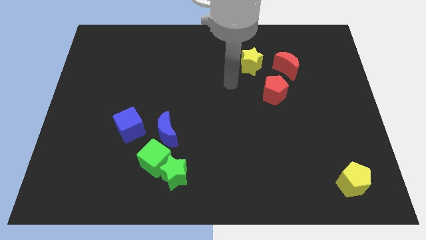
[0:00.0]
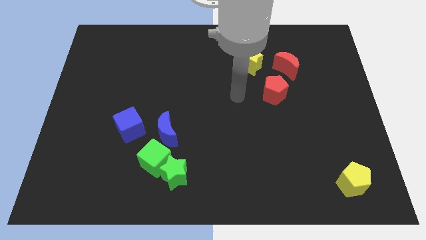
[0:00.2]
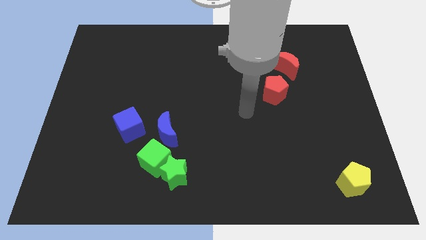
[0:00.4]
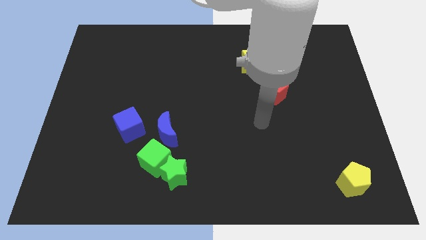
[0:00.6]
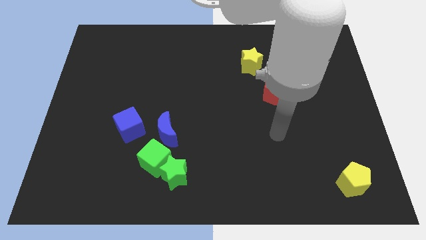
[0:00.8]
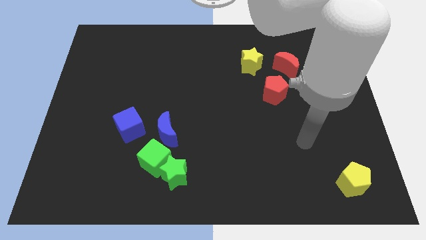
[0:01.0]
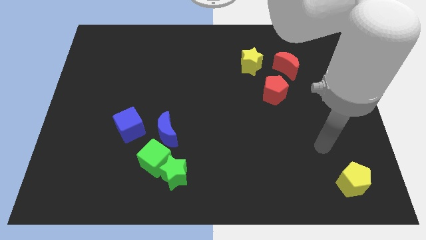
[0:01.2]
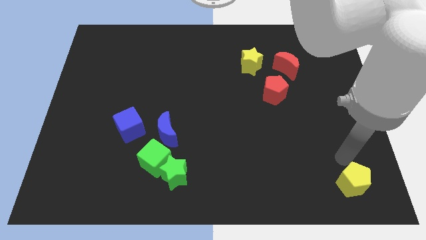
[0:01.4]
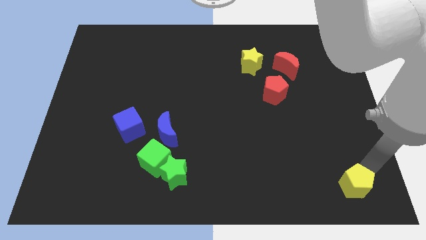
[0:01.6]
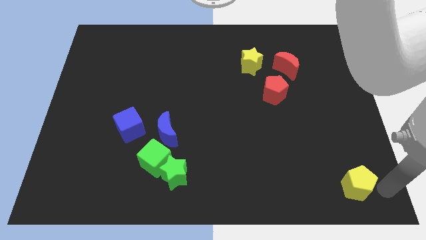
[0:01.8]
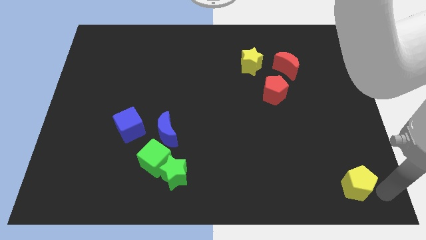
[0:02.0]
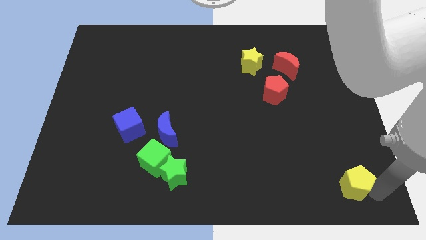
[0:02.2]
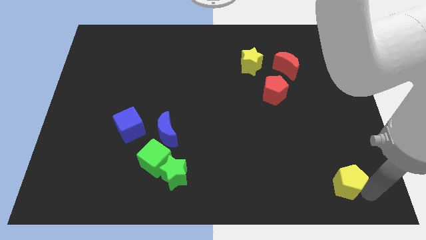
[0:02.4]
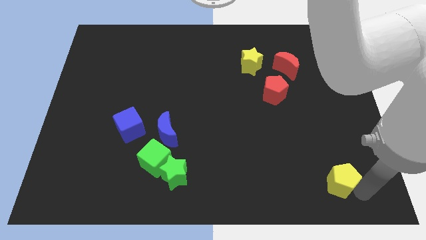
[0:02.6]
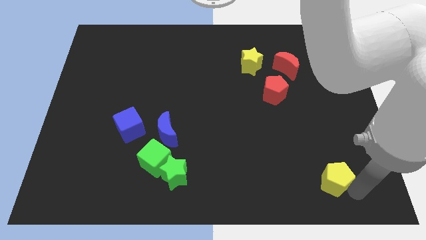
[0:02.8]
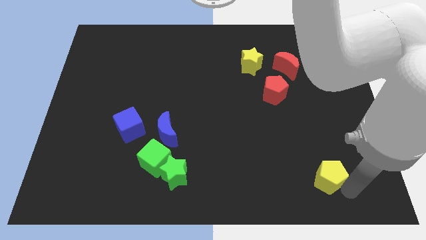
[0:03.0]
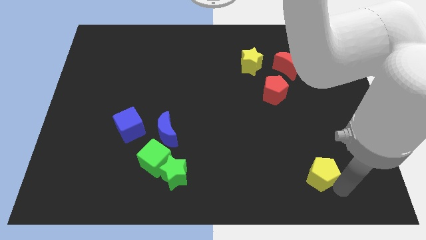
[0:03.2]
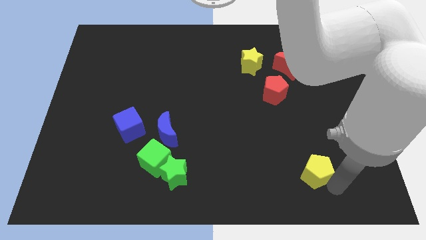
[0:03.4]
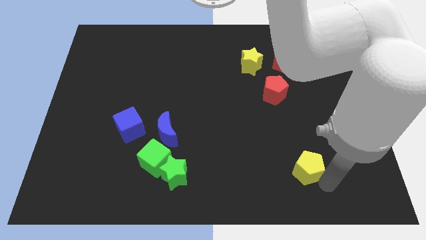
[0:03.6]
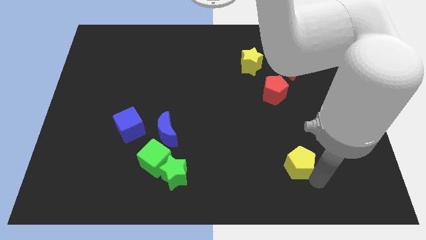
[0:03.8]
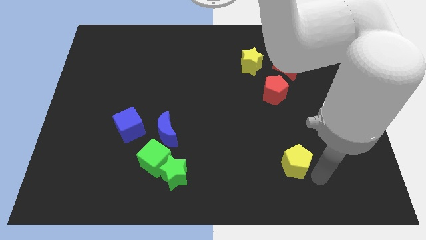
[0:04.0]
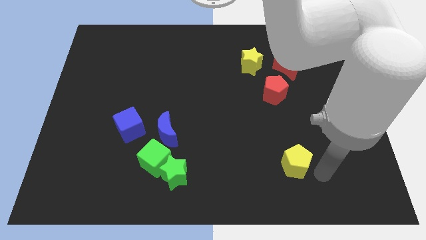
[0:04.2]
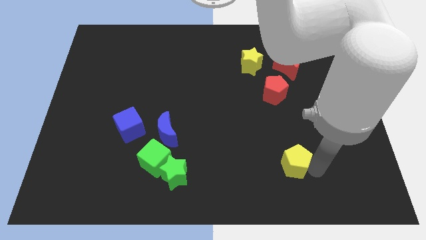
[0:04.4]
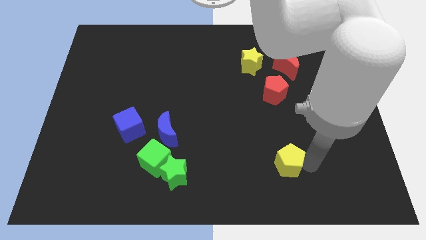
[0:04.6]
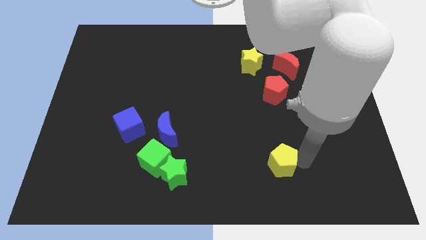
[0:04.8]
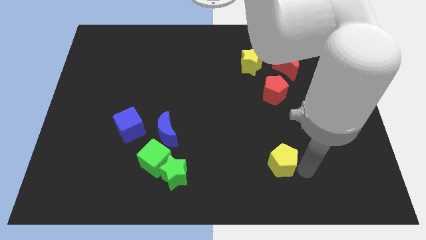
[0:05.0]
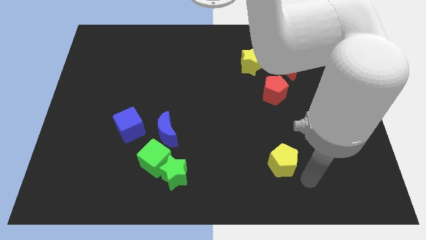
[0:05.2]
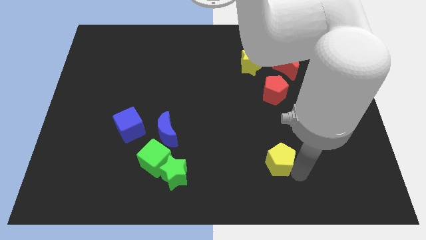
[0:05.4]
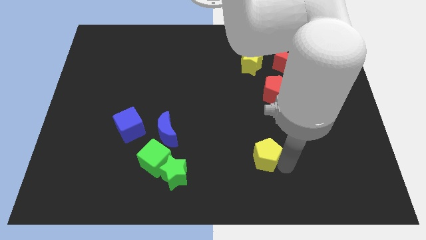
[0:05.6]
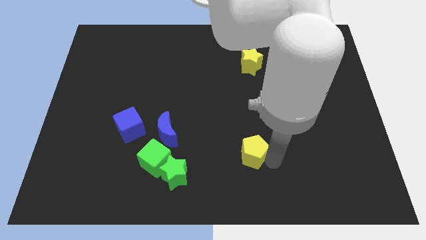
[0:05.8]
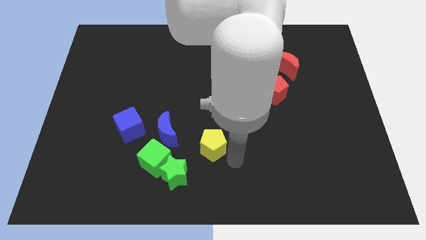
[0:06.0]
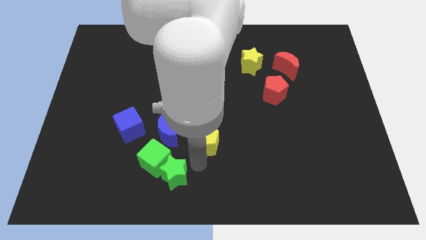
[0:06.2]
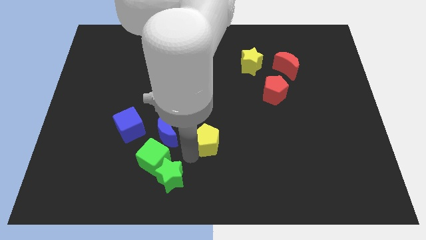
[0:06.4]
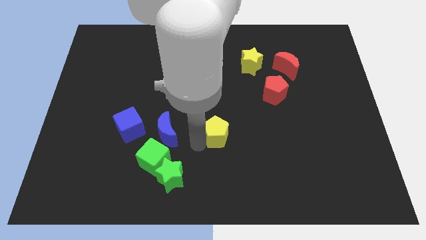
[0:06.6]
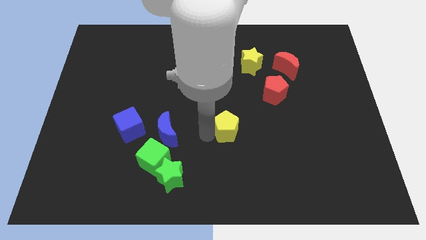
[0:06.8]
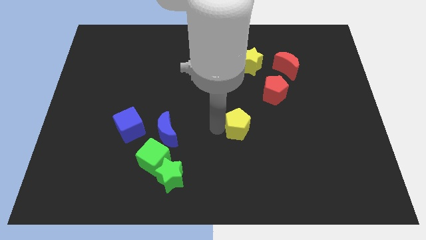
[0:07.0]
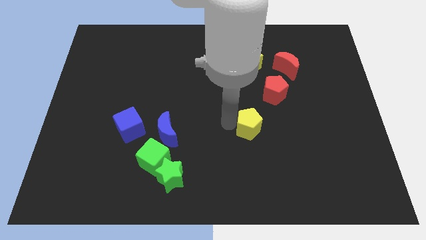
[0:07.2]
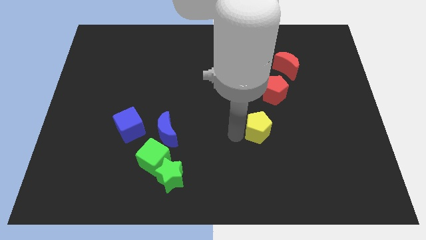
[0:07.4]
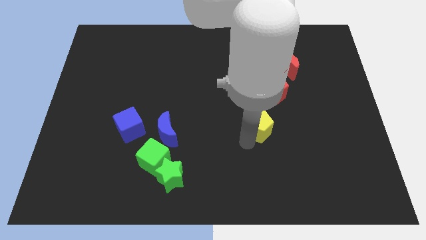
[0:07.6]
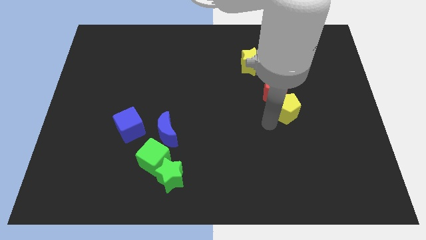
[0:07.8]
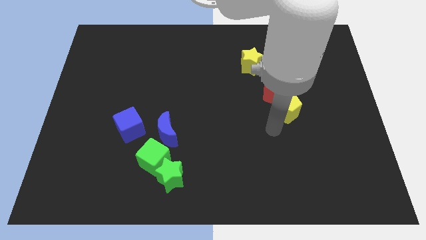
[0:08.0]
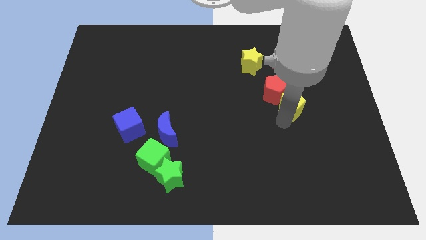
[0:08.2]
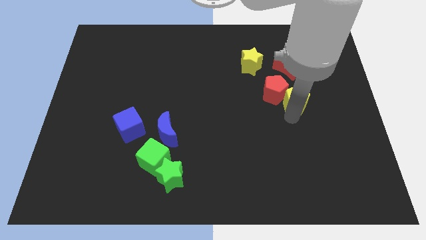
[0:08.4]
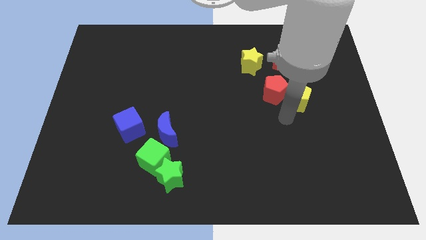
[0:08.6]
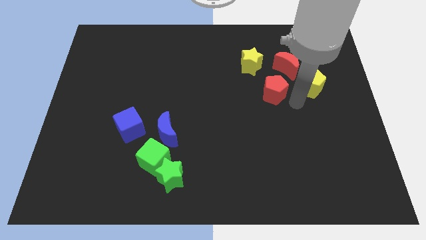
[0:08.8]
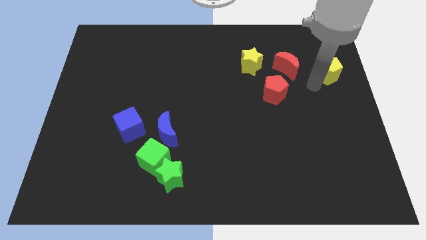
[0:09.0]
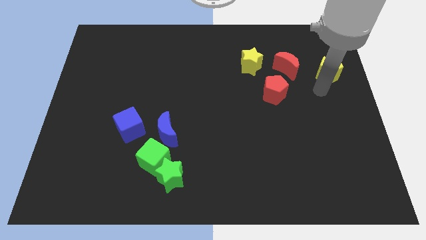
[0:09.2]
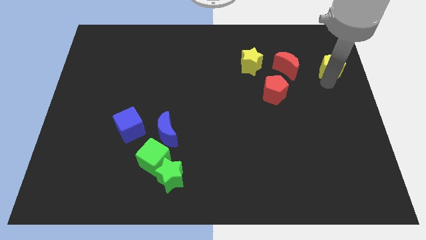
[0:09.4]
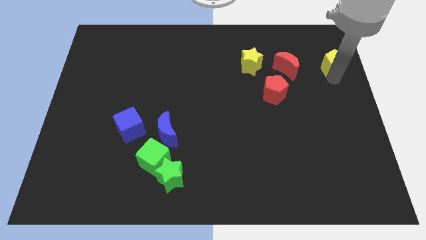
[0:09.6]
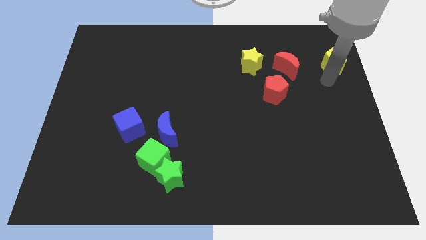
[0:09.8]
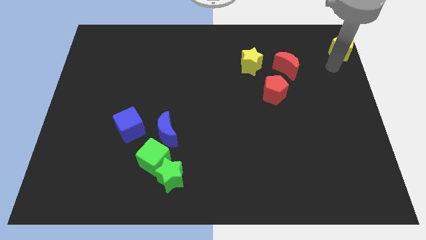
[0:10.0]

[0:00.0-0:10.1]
put the yellow pentagon to the top right of the board

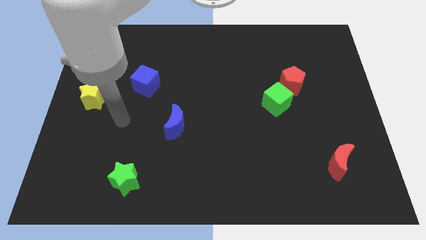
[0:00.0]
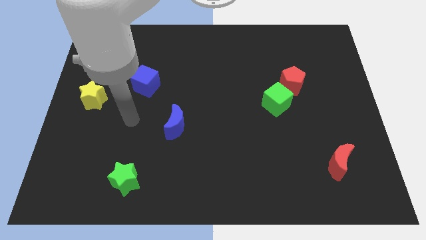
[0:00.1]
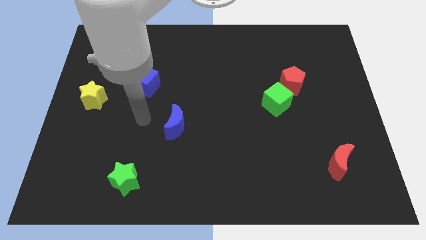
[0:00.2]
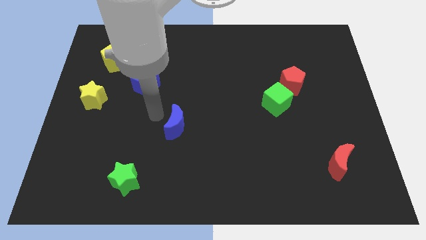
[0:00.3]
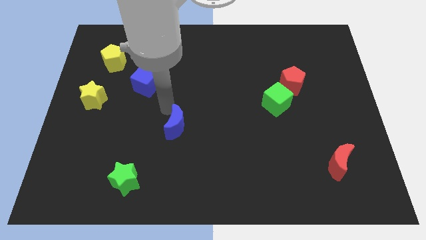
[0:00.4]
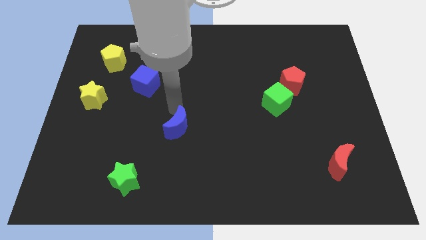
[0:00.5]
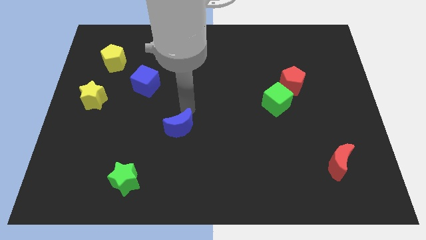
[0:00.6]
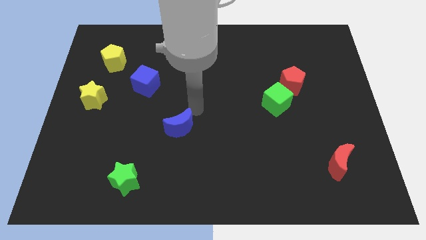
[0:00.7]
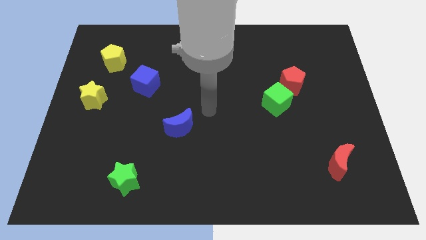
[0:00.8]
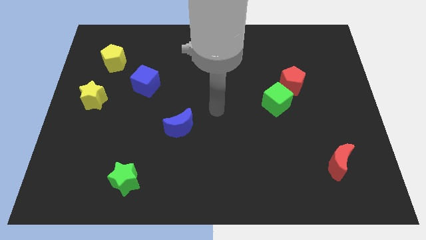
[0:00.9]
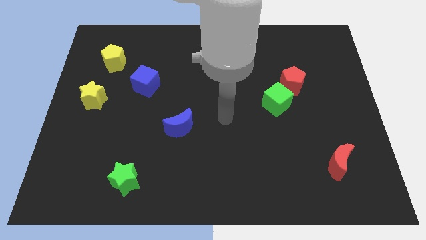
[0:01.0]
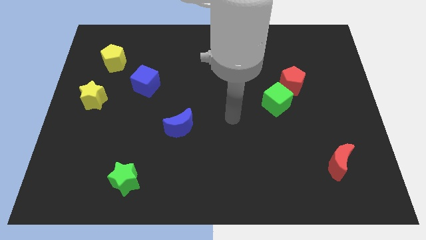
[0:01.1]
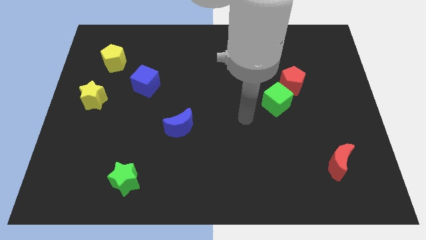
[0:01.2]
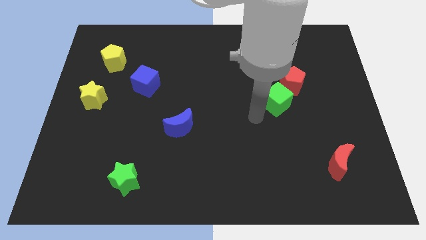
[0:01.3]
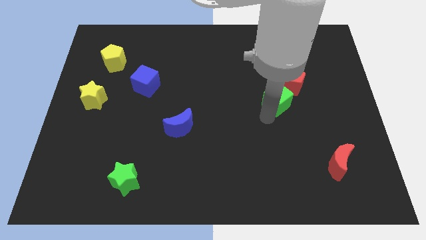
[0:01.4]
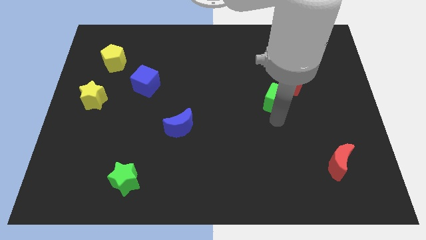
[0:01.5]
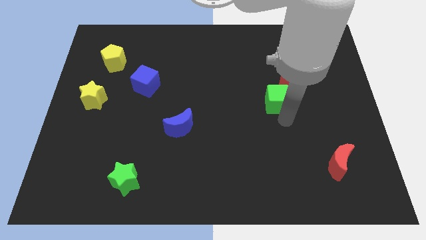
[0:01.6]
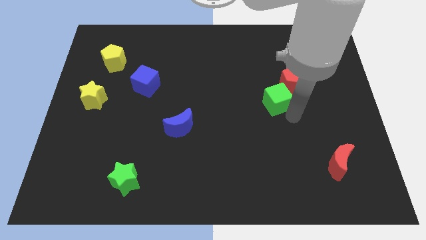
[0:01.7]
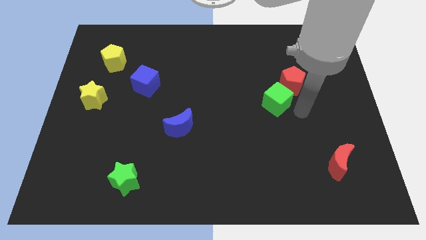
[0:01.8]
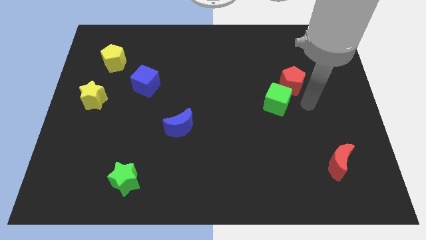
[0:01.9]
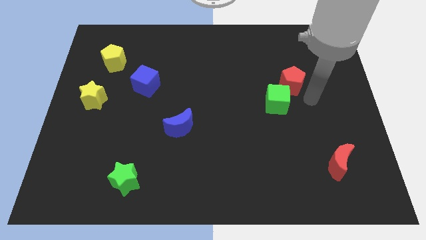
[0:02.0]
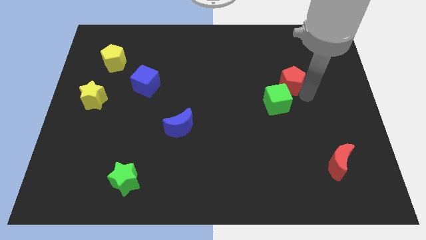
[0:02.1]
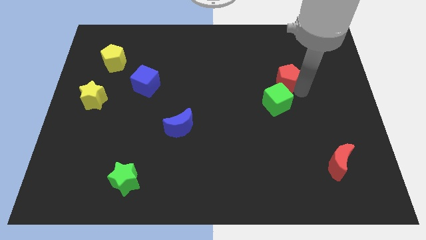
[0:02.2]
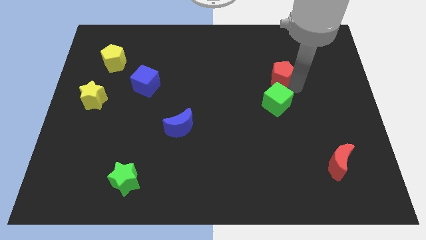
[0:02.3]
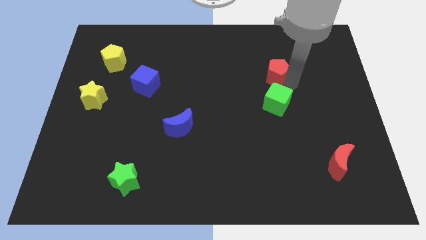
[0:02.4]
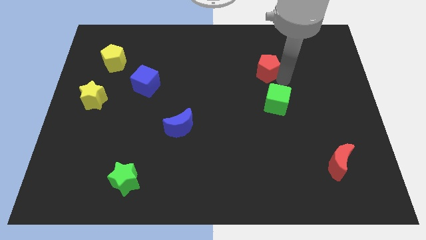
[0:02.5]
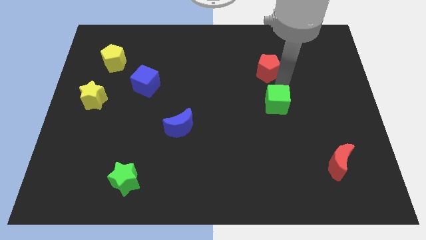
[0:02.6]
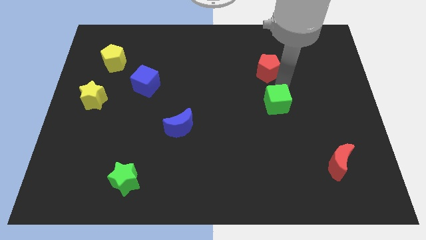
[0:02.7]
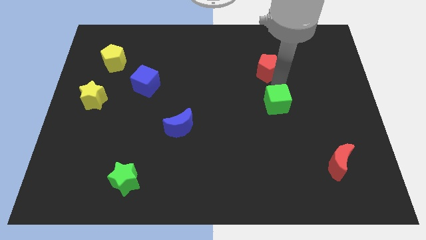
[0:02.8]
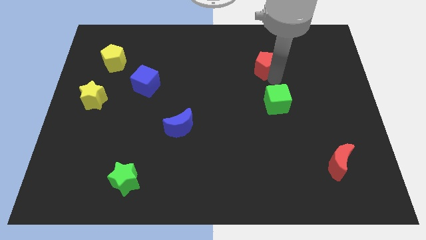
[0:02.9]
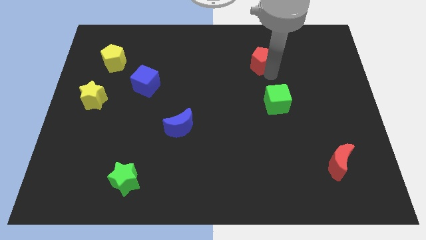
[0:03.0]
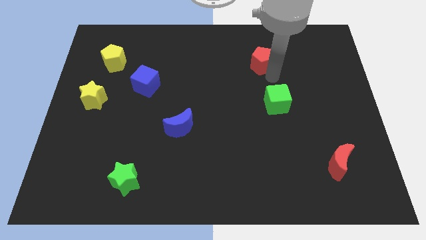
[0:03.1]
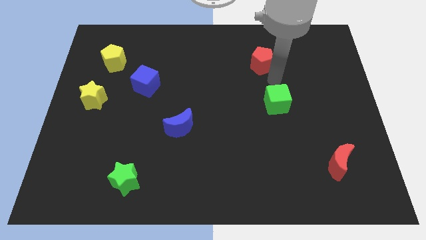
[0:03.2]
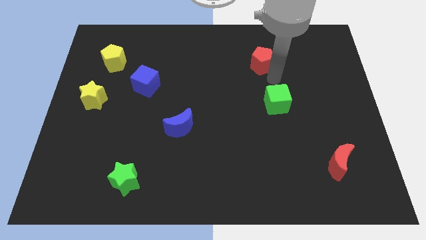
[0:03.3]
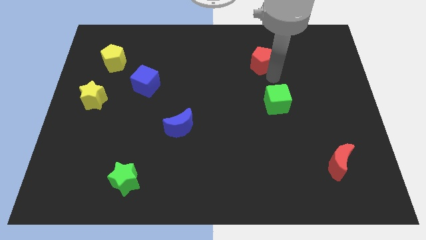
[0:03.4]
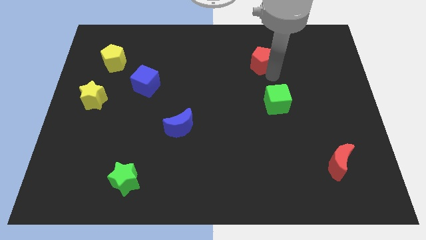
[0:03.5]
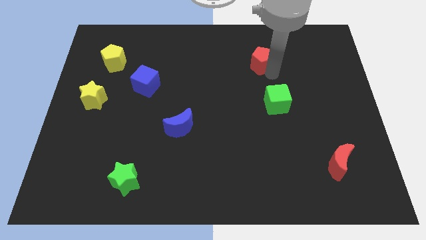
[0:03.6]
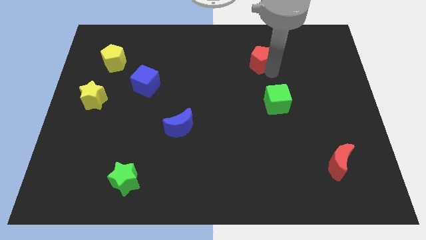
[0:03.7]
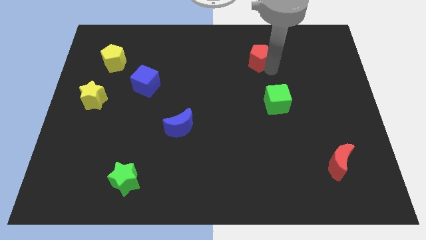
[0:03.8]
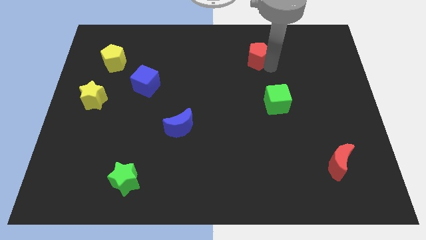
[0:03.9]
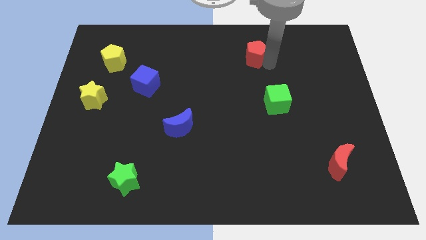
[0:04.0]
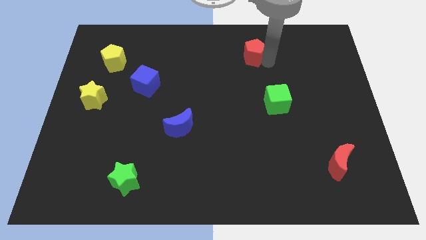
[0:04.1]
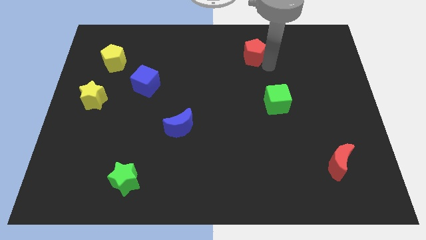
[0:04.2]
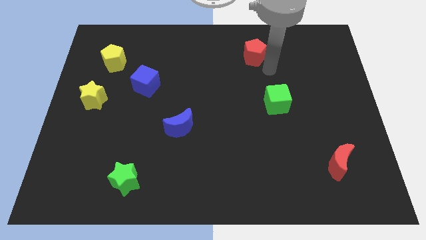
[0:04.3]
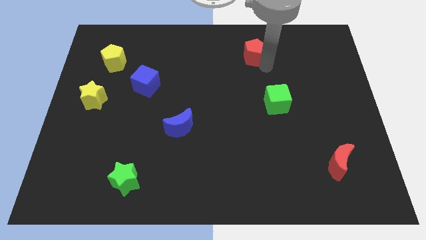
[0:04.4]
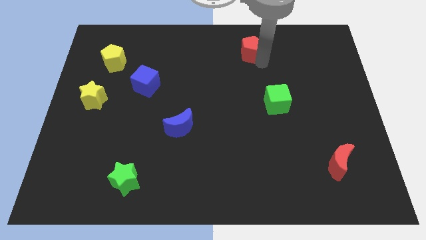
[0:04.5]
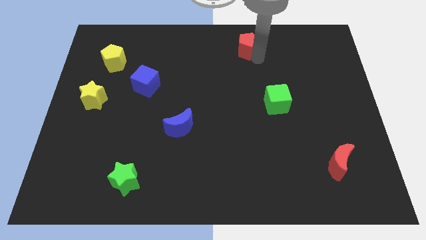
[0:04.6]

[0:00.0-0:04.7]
slide the red pentagon to the top side
